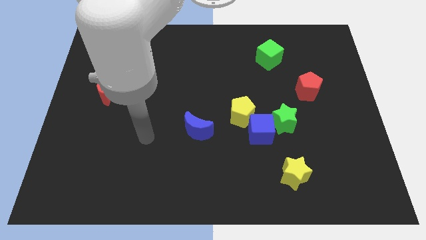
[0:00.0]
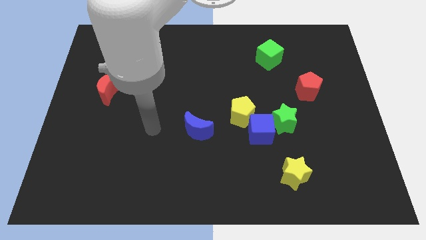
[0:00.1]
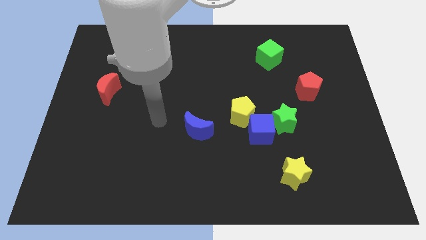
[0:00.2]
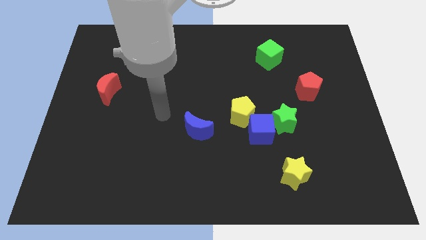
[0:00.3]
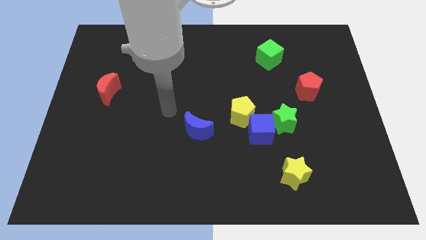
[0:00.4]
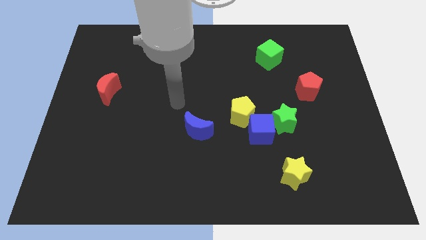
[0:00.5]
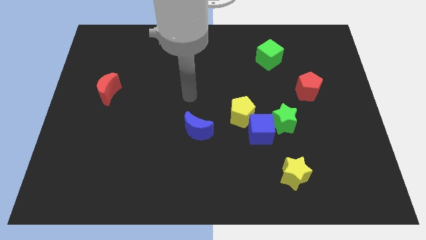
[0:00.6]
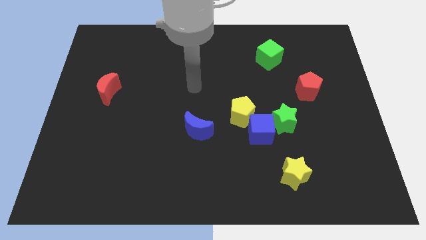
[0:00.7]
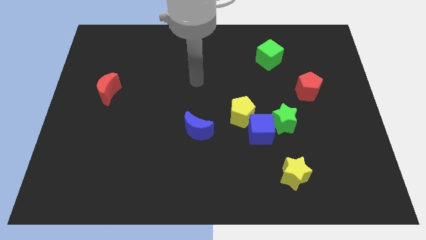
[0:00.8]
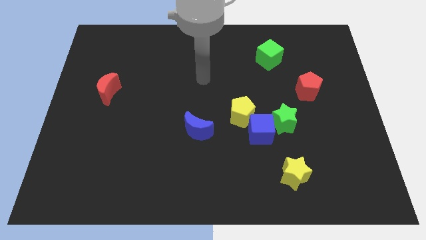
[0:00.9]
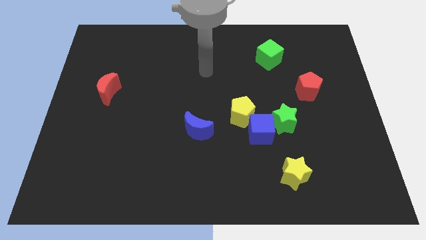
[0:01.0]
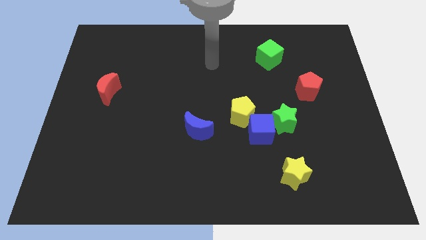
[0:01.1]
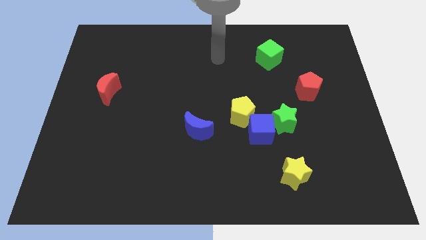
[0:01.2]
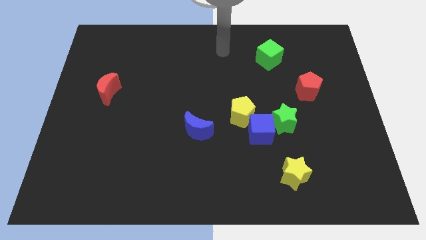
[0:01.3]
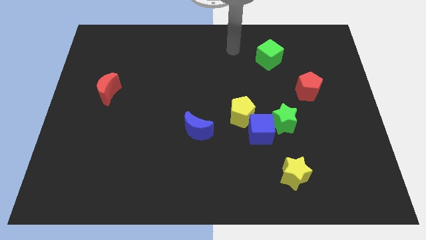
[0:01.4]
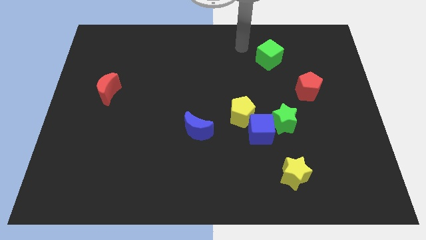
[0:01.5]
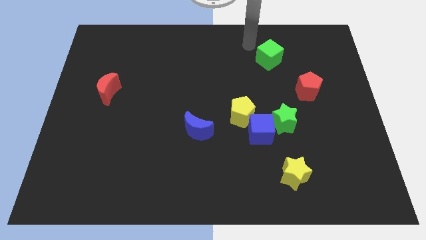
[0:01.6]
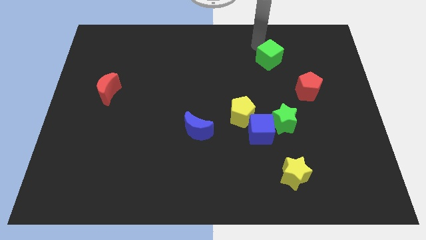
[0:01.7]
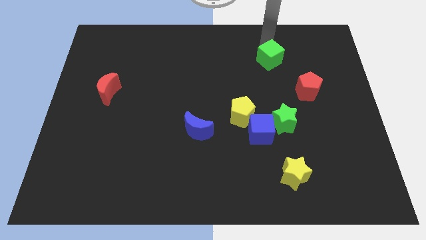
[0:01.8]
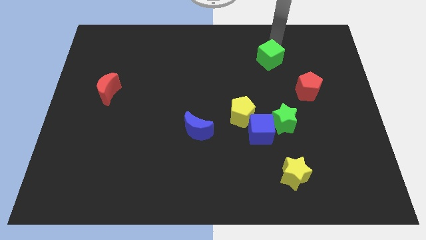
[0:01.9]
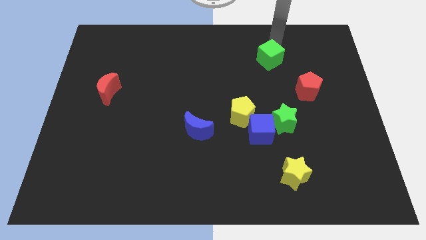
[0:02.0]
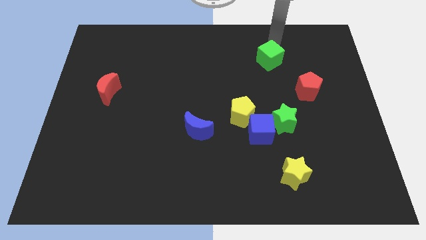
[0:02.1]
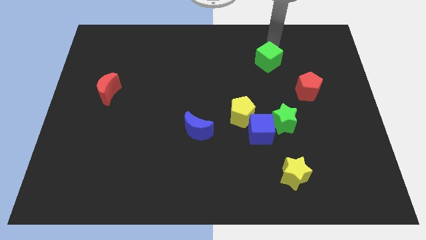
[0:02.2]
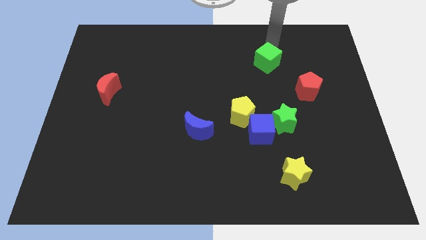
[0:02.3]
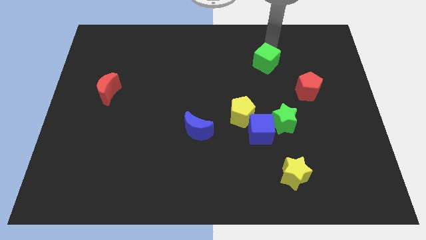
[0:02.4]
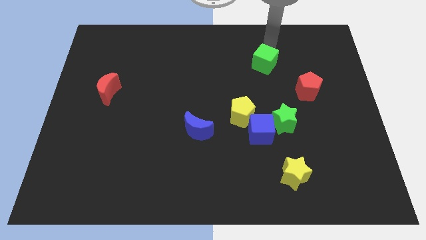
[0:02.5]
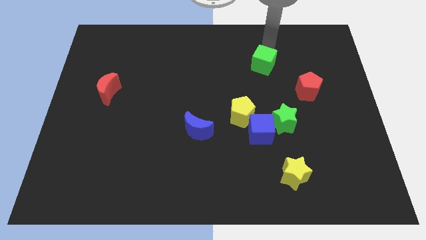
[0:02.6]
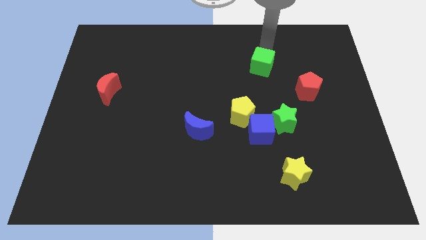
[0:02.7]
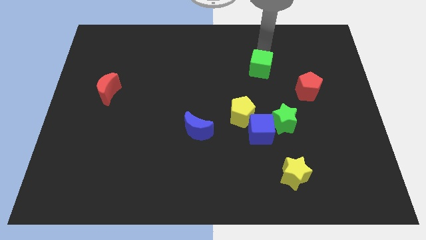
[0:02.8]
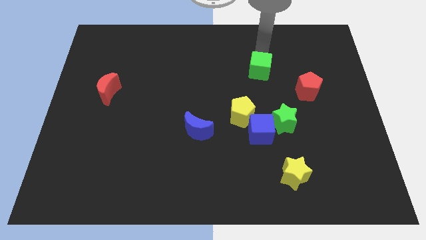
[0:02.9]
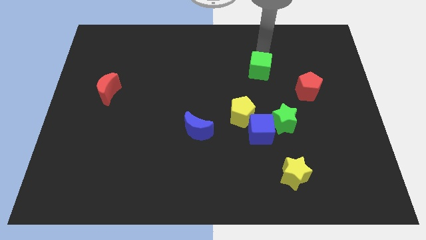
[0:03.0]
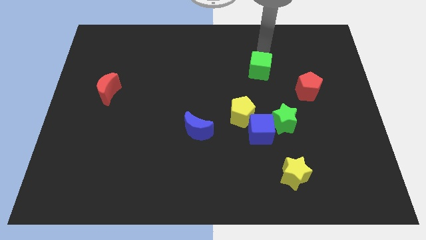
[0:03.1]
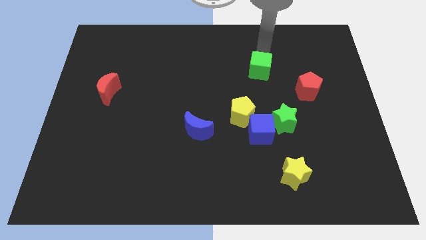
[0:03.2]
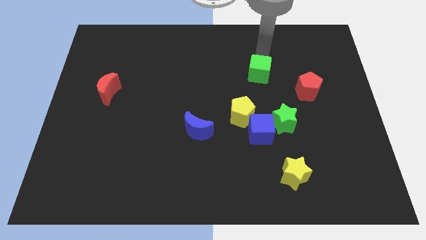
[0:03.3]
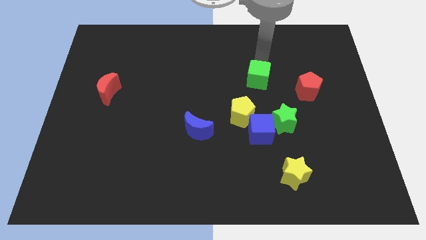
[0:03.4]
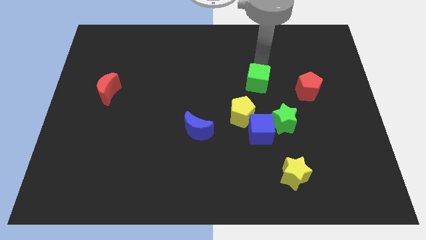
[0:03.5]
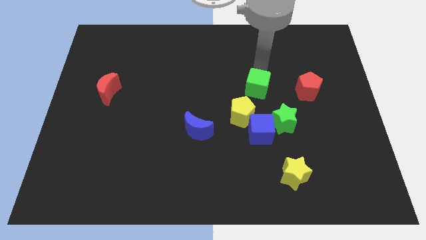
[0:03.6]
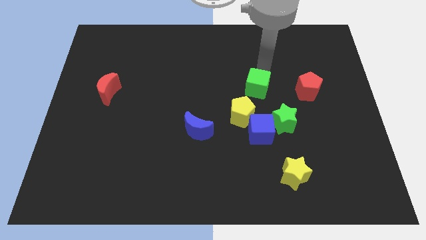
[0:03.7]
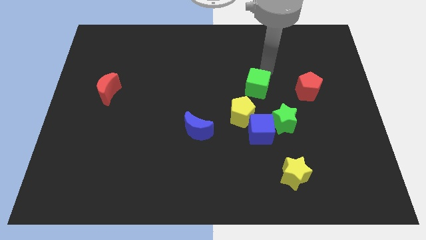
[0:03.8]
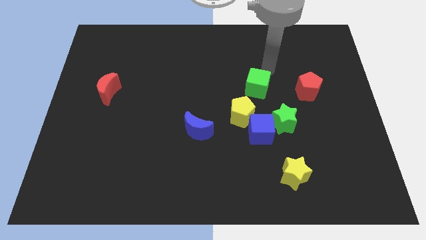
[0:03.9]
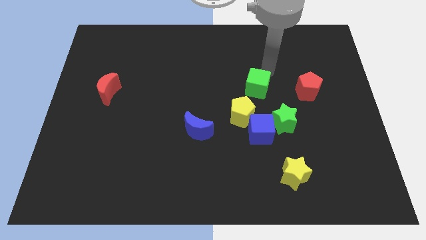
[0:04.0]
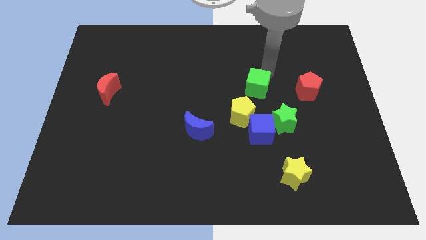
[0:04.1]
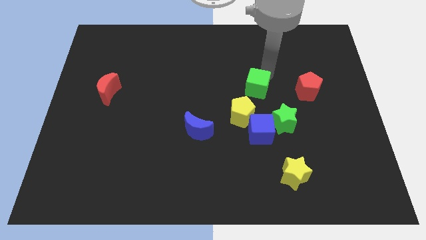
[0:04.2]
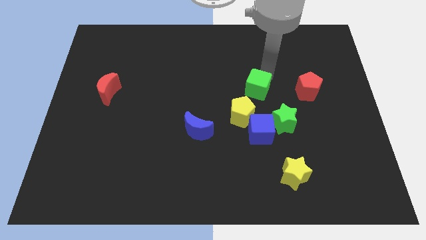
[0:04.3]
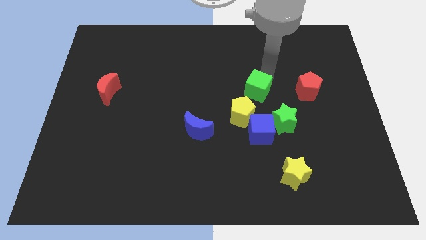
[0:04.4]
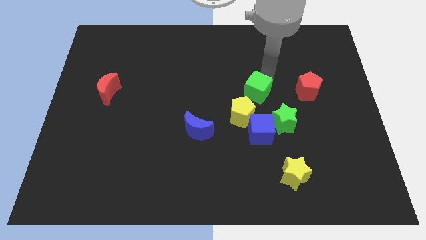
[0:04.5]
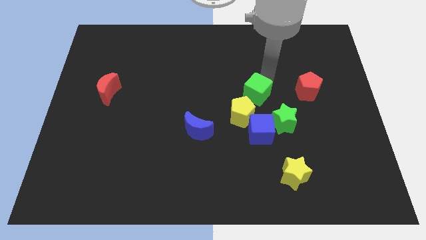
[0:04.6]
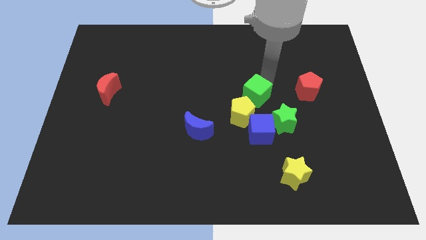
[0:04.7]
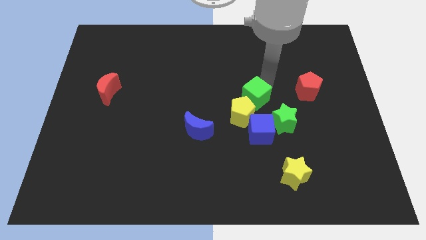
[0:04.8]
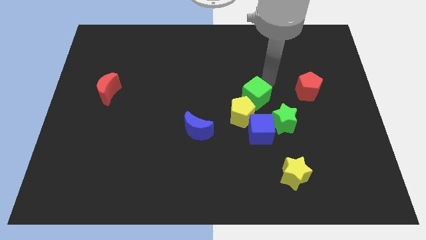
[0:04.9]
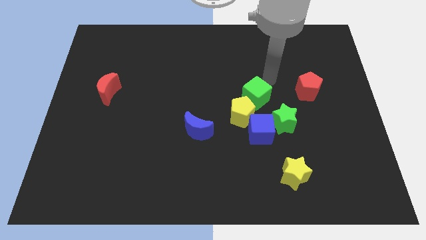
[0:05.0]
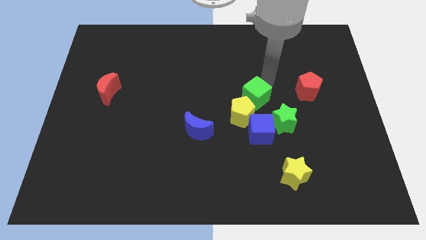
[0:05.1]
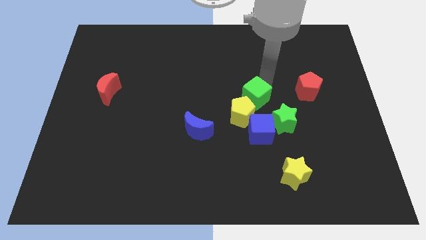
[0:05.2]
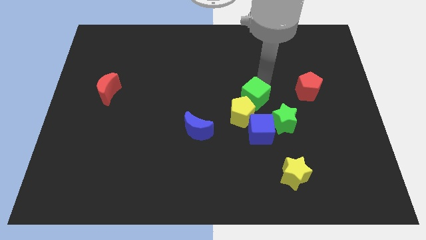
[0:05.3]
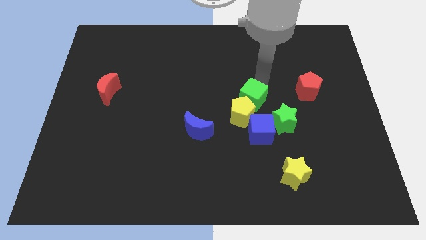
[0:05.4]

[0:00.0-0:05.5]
push the green cube close to the yellow pentagon

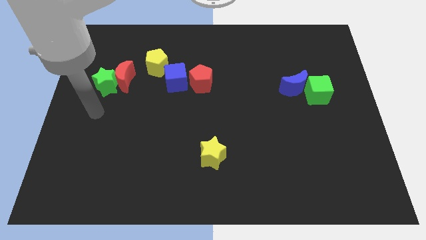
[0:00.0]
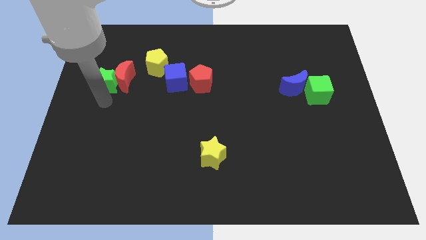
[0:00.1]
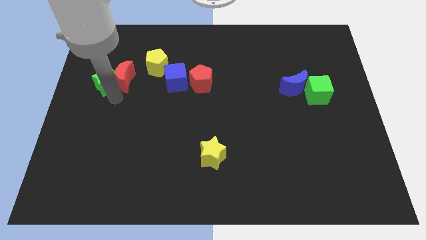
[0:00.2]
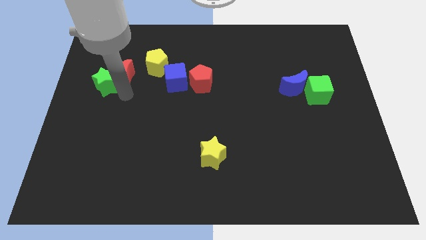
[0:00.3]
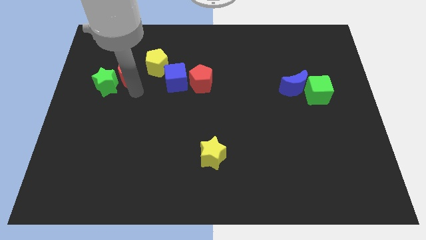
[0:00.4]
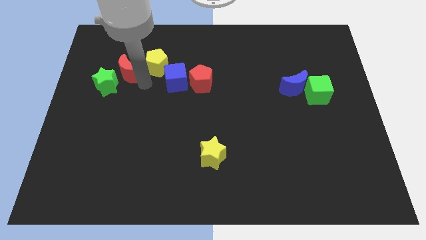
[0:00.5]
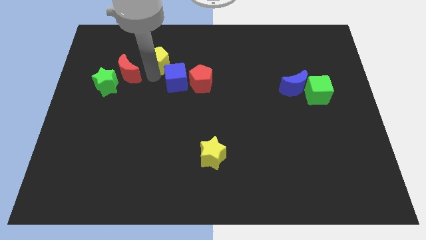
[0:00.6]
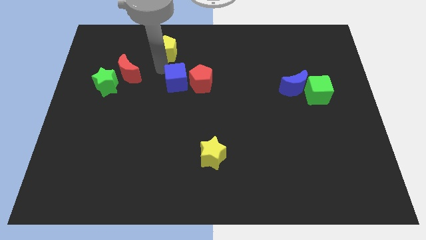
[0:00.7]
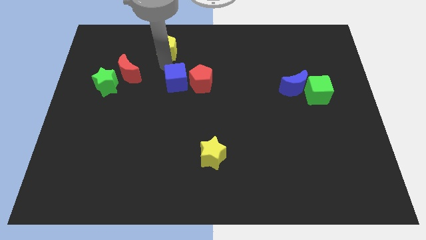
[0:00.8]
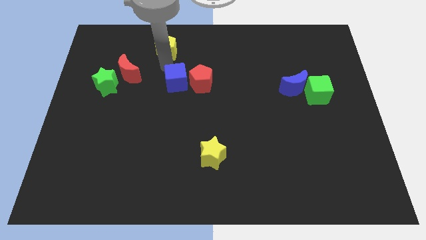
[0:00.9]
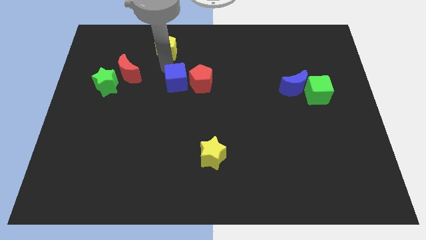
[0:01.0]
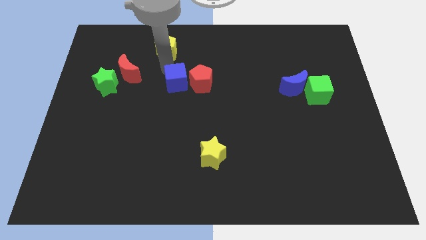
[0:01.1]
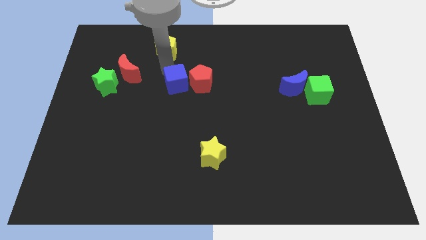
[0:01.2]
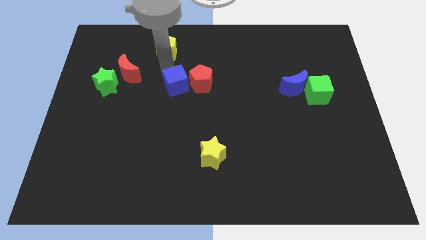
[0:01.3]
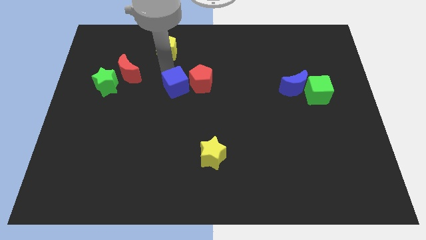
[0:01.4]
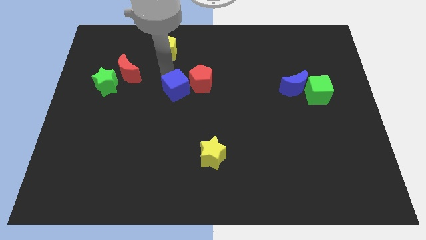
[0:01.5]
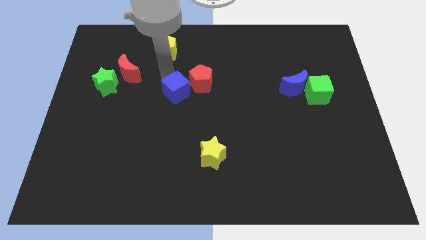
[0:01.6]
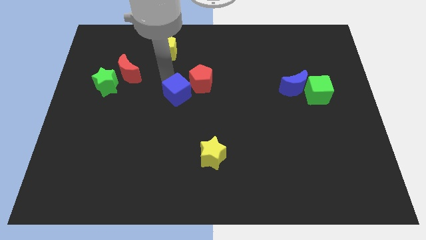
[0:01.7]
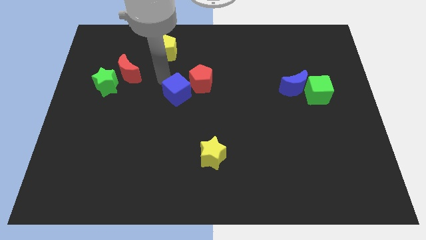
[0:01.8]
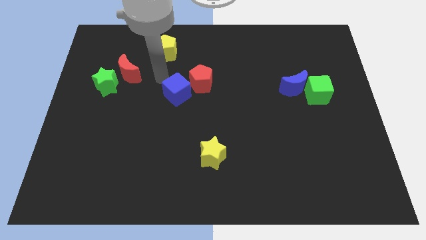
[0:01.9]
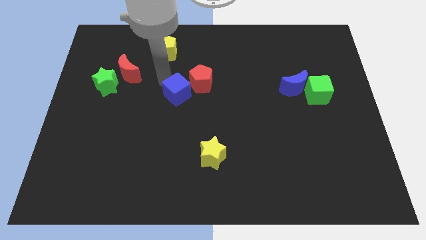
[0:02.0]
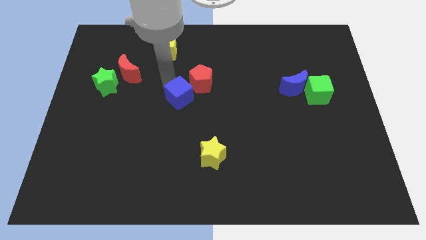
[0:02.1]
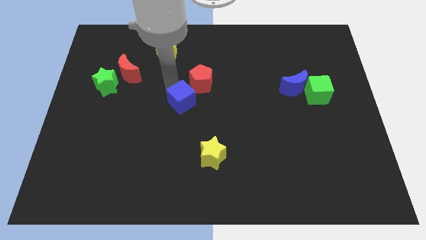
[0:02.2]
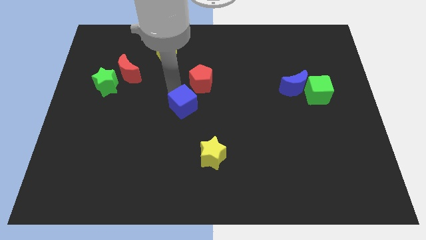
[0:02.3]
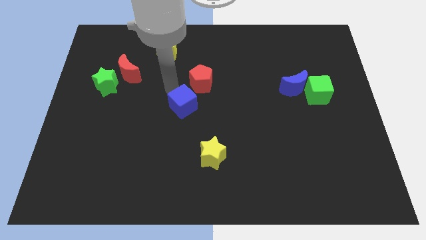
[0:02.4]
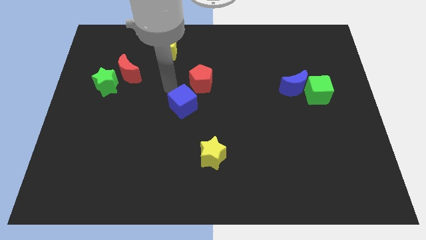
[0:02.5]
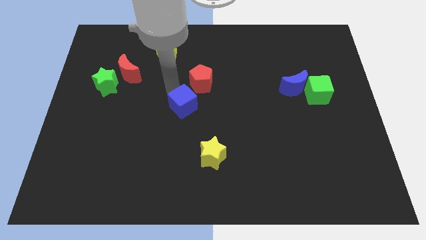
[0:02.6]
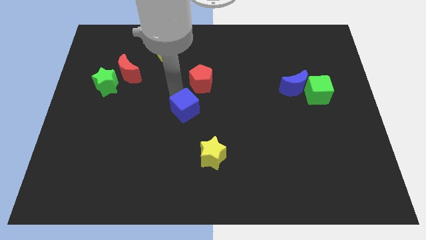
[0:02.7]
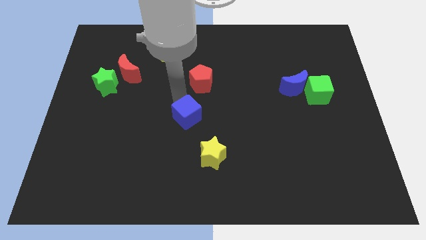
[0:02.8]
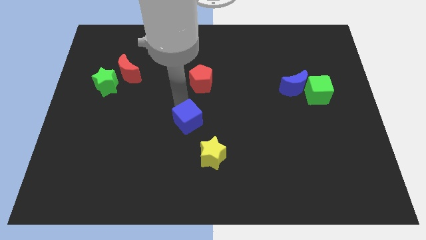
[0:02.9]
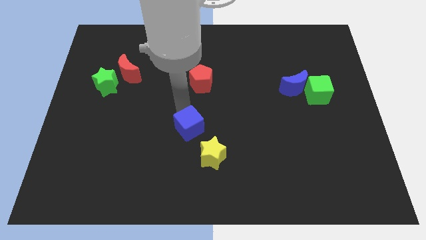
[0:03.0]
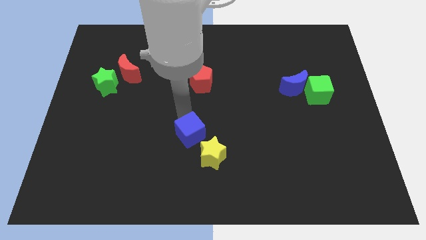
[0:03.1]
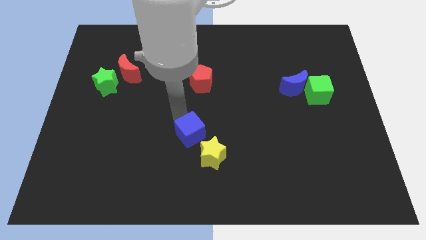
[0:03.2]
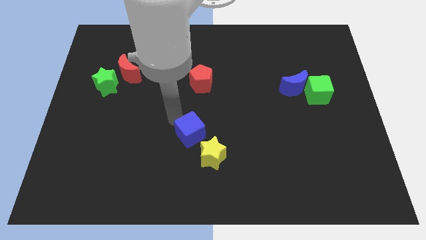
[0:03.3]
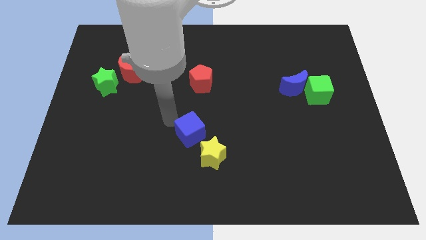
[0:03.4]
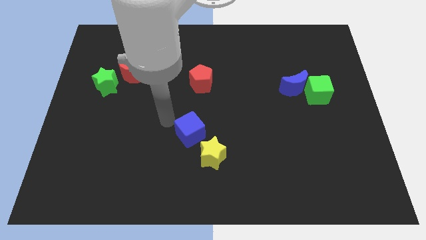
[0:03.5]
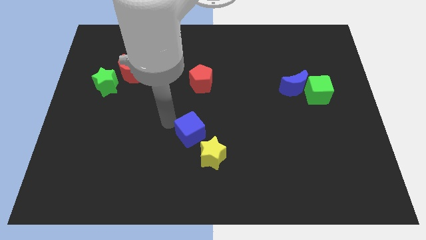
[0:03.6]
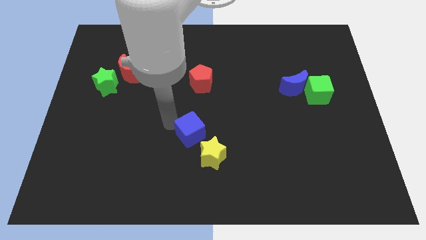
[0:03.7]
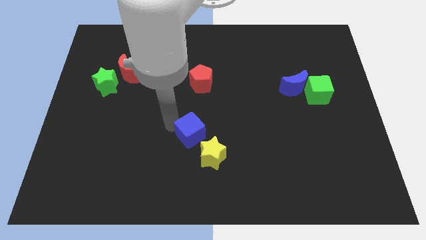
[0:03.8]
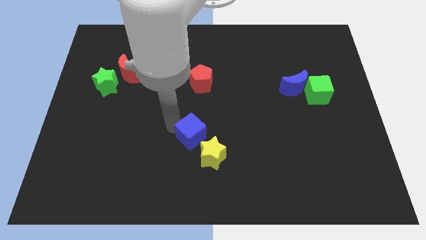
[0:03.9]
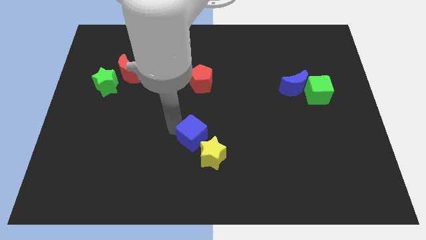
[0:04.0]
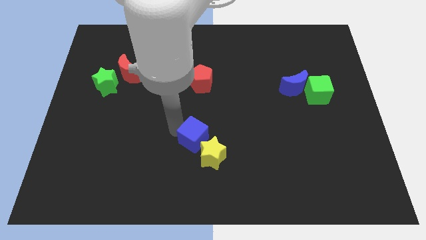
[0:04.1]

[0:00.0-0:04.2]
slide the blue cube towards the yellow star
